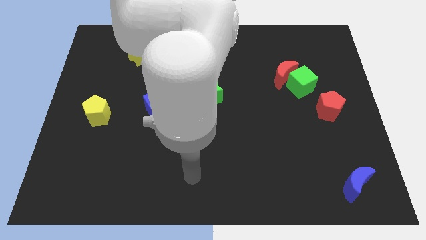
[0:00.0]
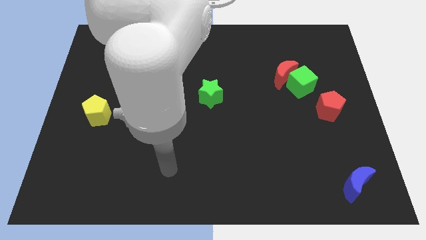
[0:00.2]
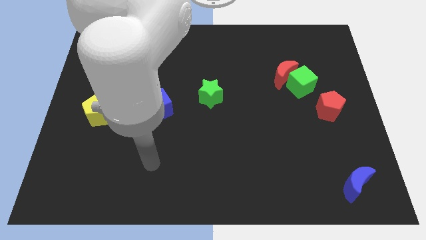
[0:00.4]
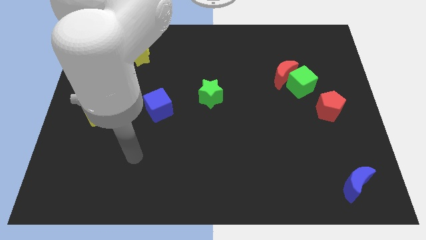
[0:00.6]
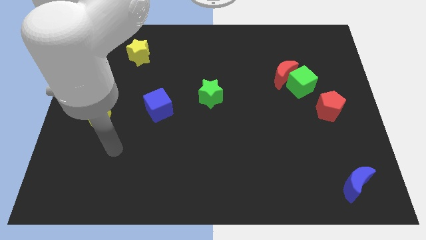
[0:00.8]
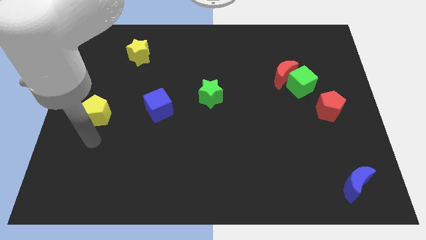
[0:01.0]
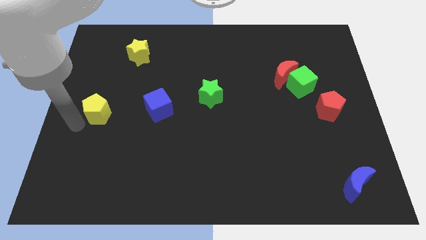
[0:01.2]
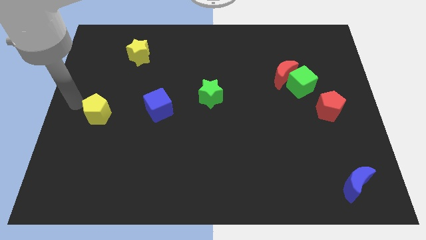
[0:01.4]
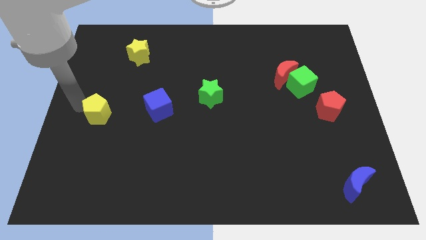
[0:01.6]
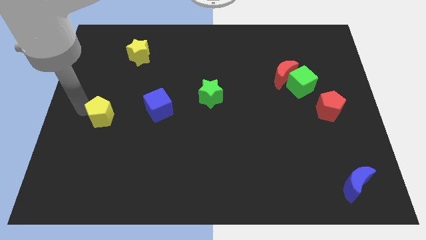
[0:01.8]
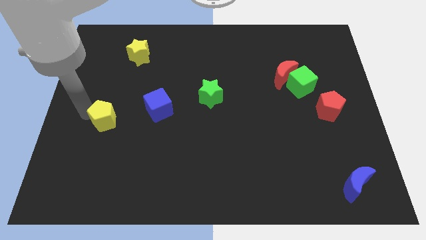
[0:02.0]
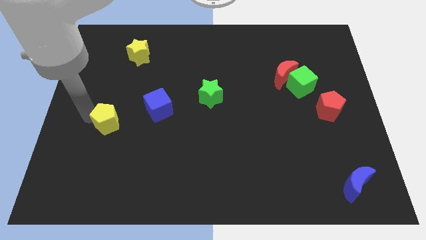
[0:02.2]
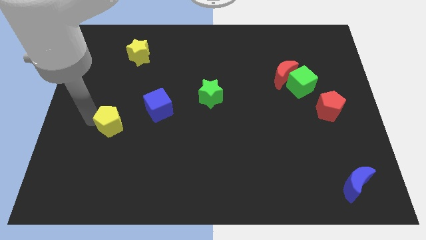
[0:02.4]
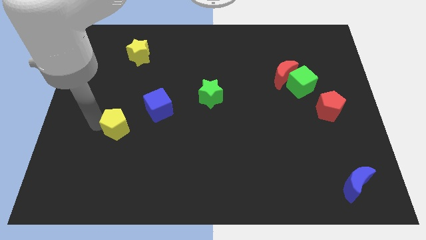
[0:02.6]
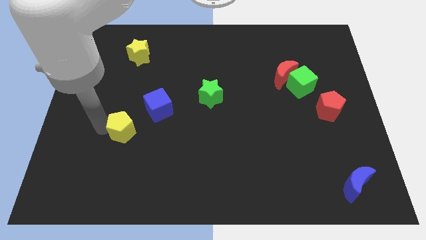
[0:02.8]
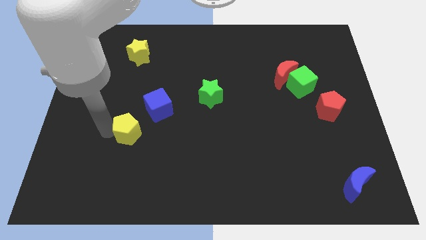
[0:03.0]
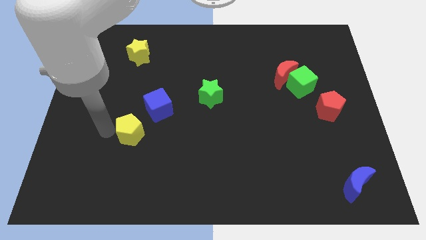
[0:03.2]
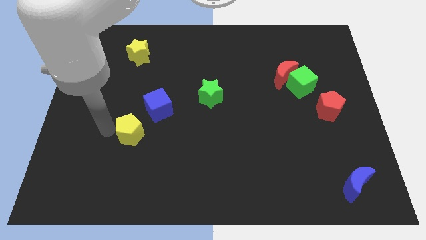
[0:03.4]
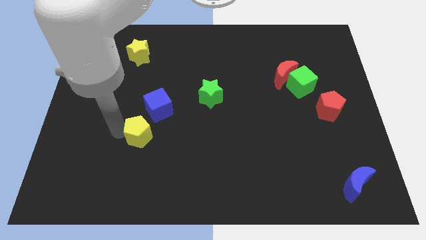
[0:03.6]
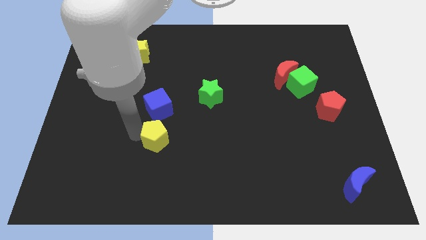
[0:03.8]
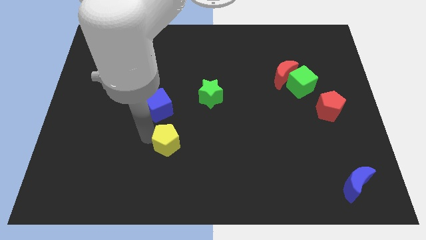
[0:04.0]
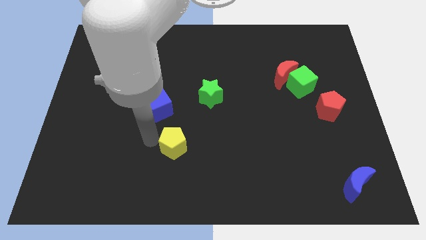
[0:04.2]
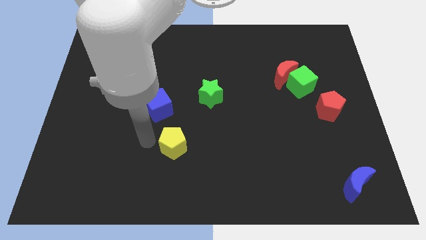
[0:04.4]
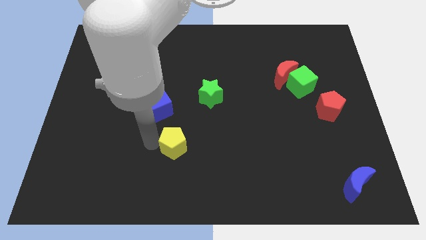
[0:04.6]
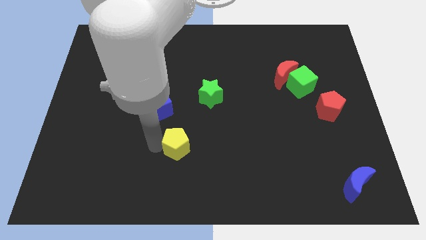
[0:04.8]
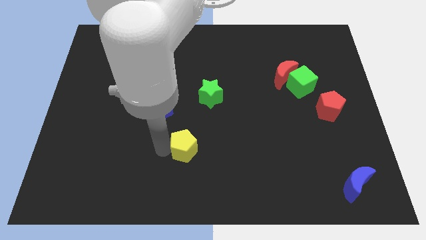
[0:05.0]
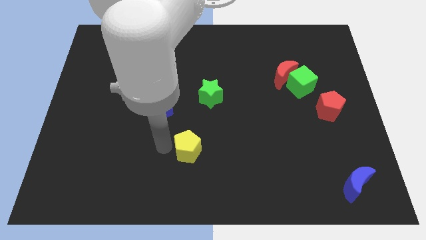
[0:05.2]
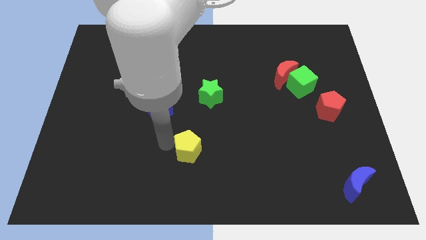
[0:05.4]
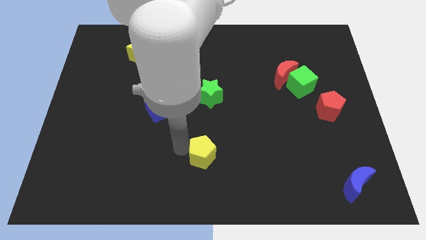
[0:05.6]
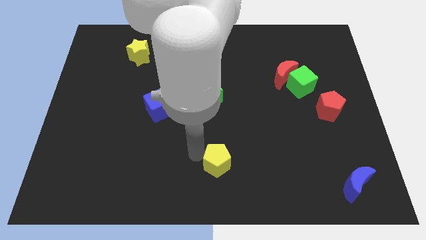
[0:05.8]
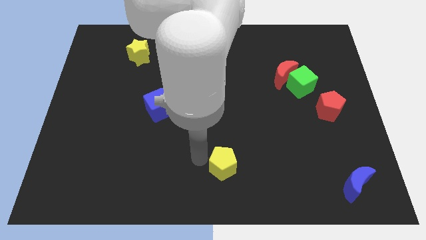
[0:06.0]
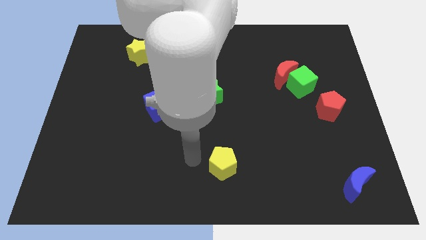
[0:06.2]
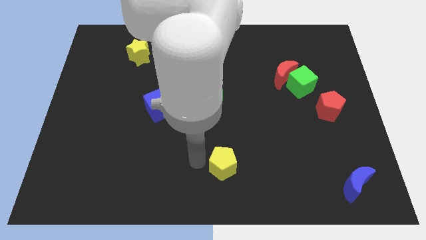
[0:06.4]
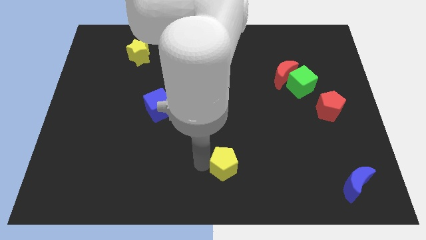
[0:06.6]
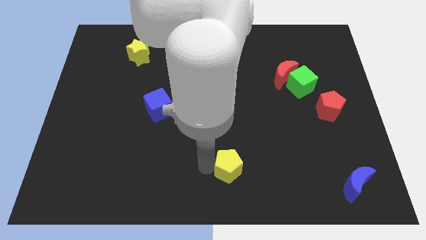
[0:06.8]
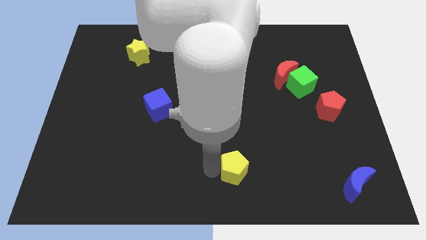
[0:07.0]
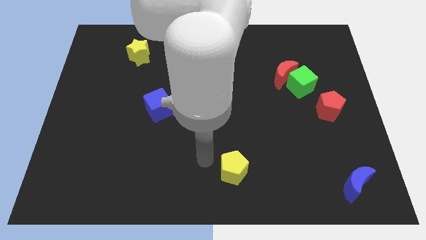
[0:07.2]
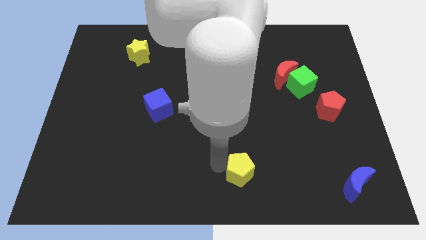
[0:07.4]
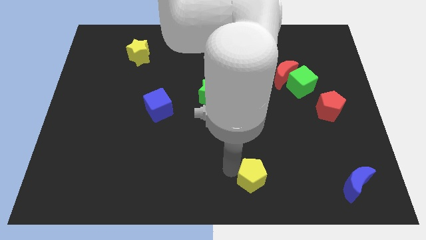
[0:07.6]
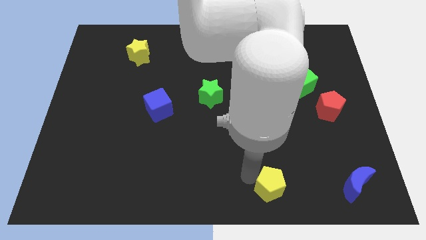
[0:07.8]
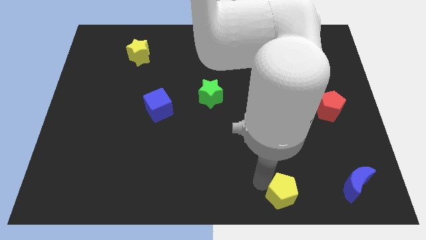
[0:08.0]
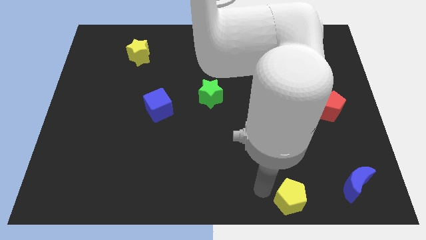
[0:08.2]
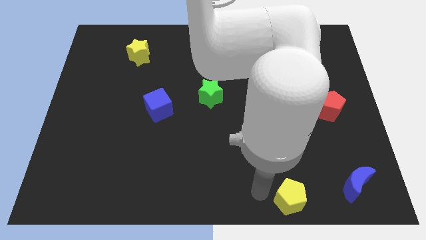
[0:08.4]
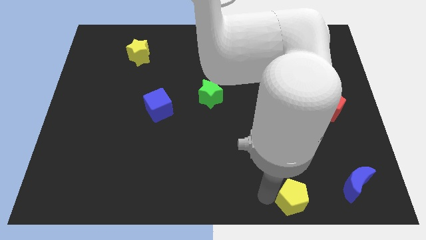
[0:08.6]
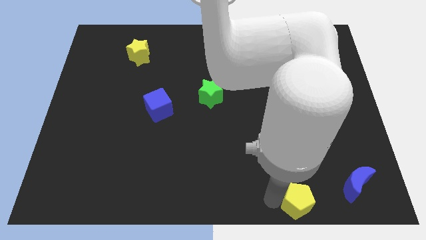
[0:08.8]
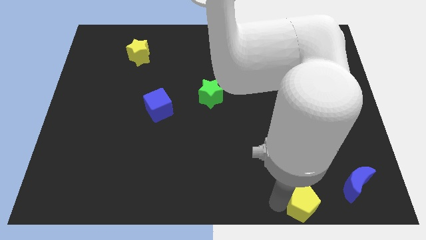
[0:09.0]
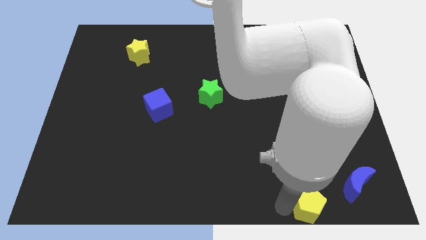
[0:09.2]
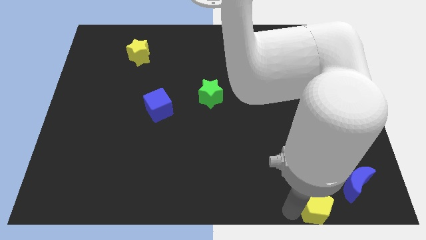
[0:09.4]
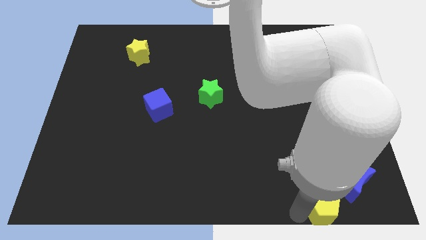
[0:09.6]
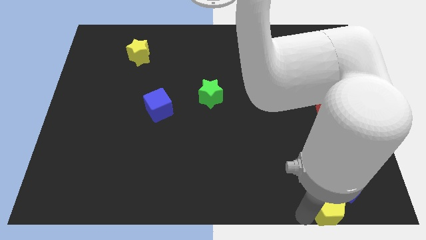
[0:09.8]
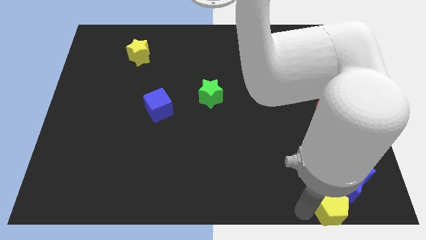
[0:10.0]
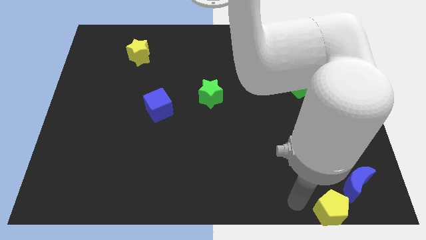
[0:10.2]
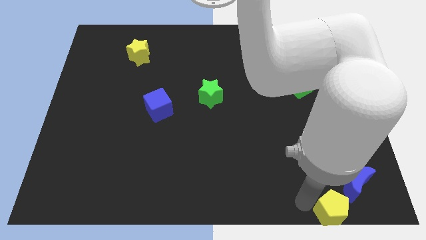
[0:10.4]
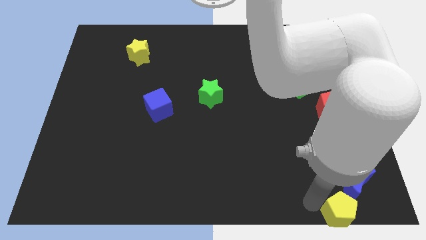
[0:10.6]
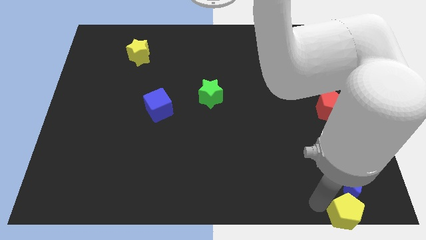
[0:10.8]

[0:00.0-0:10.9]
slide the yellow pentagon to the lower right corner
